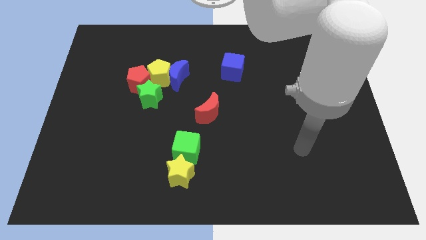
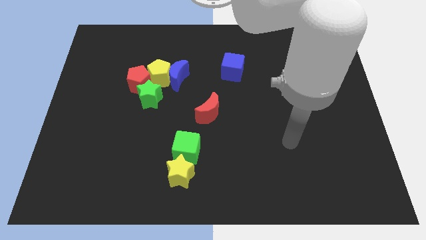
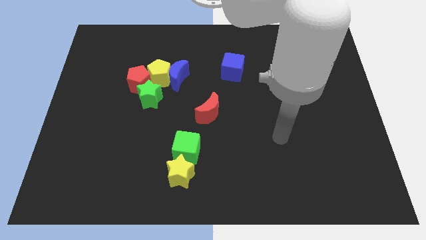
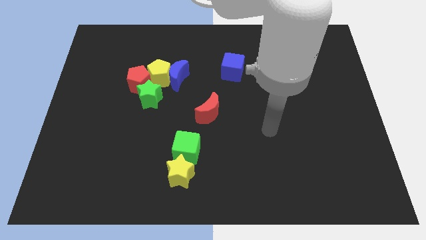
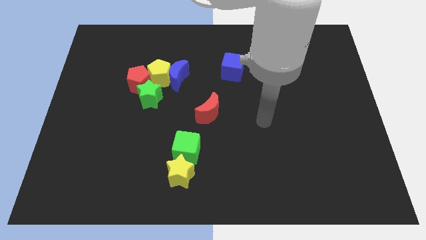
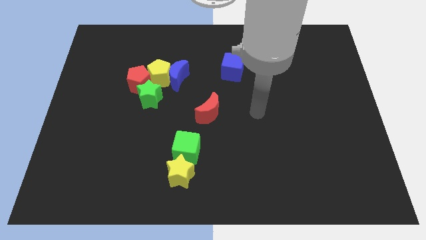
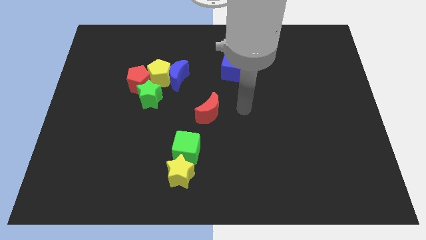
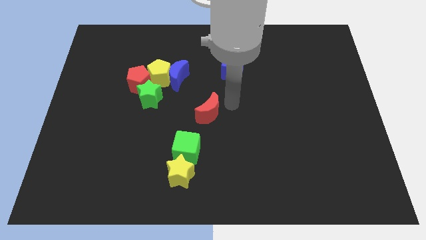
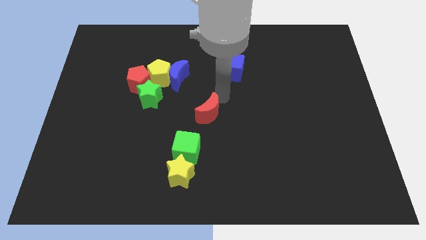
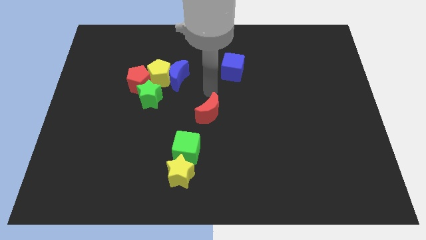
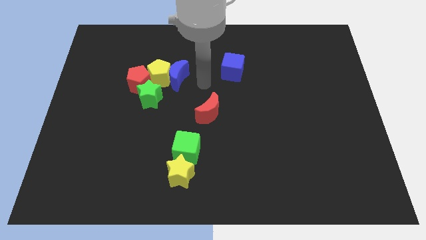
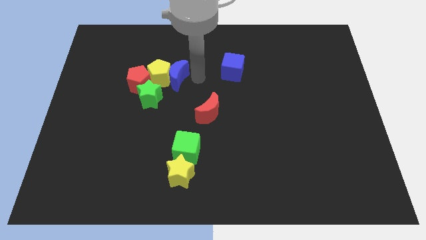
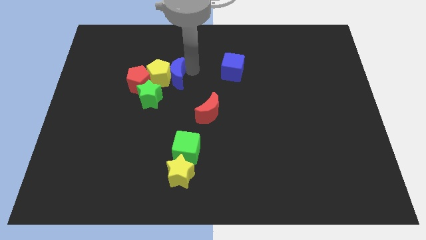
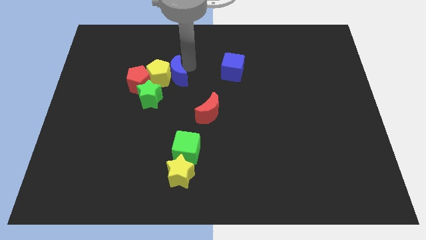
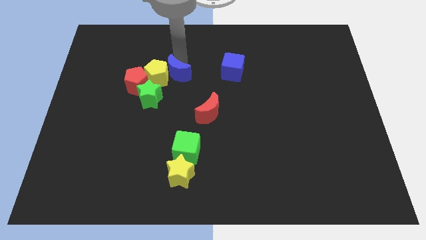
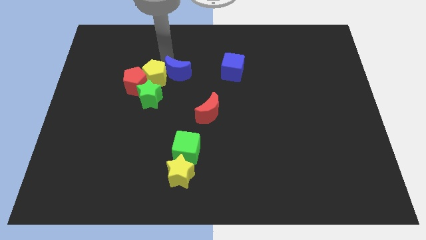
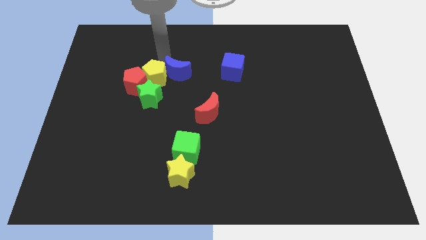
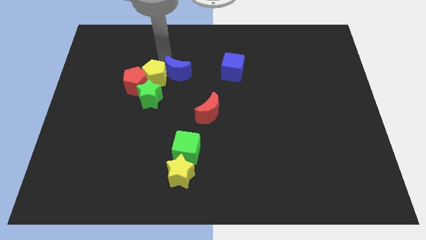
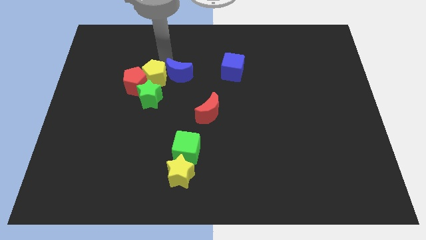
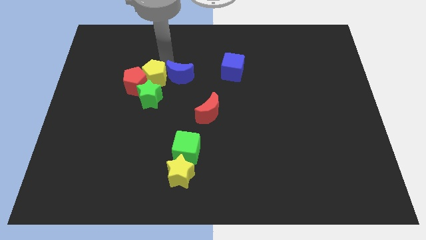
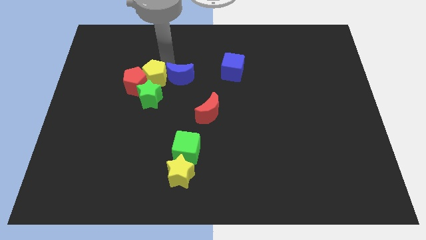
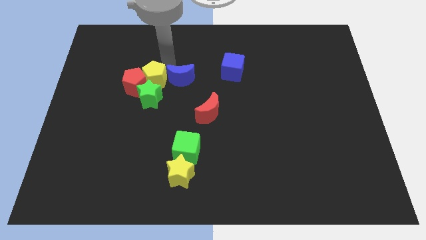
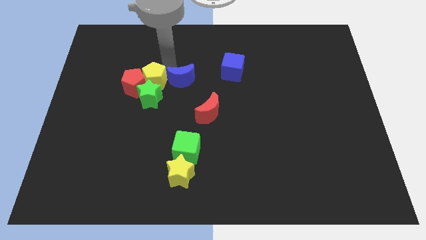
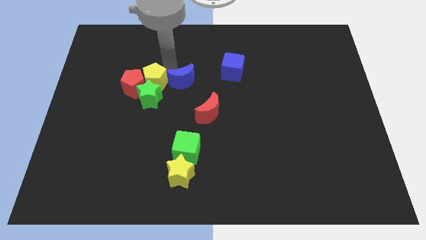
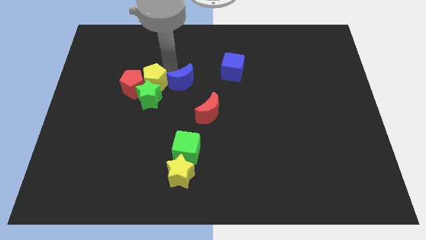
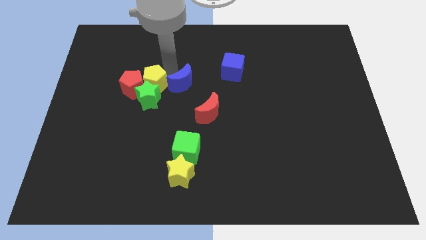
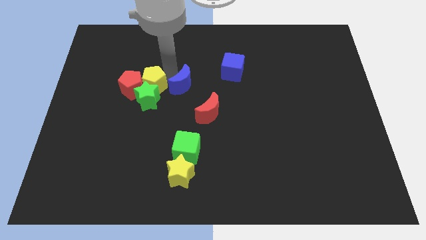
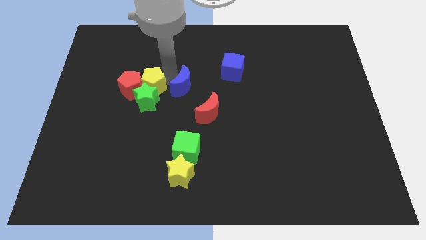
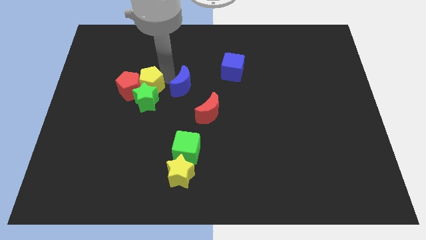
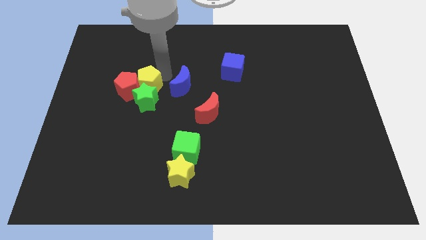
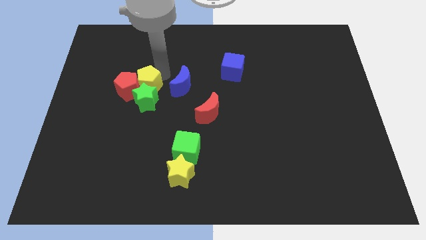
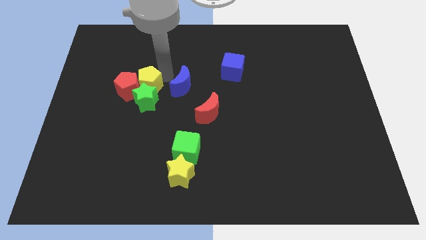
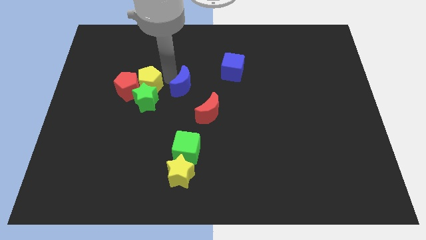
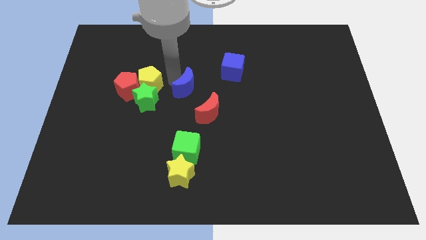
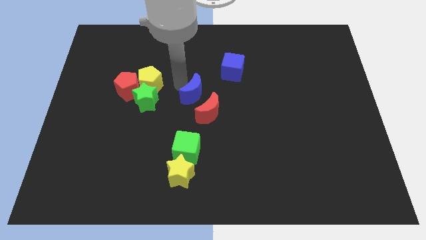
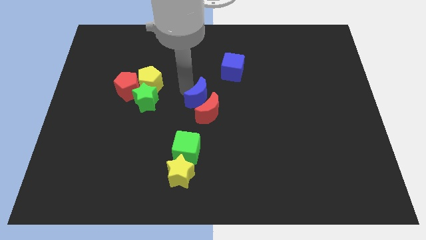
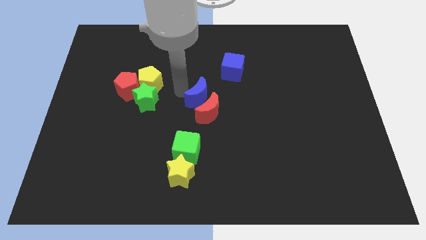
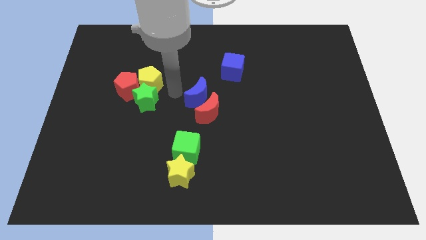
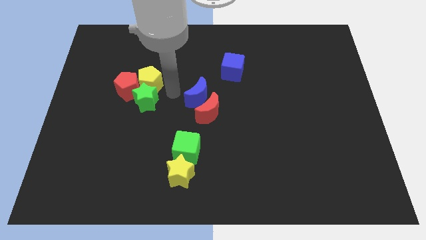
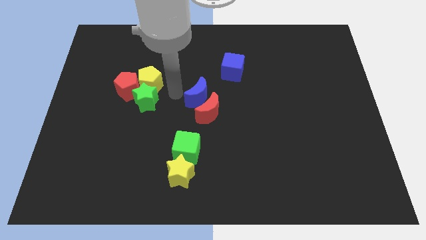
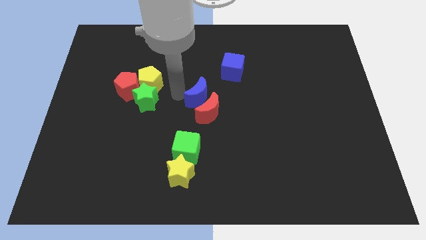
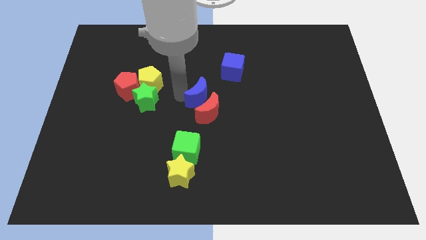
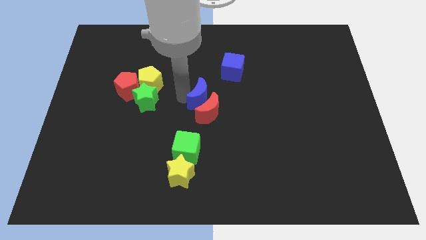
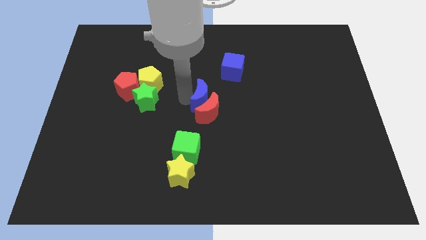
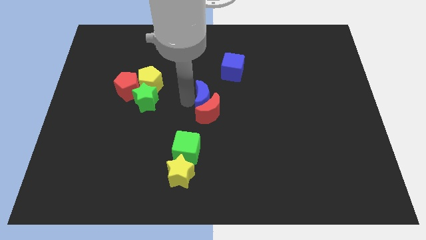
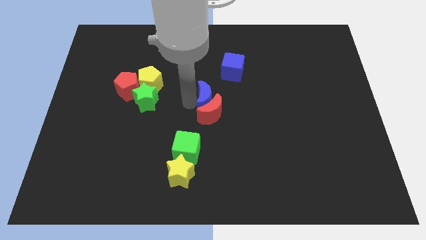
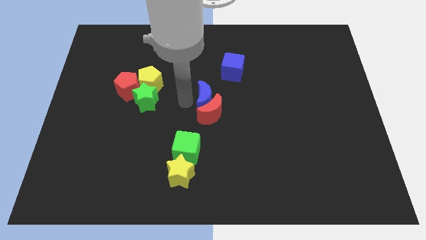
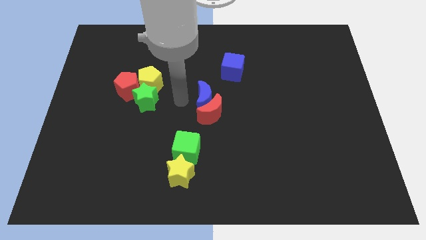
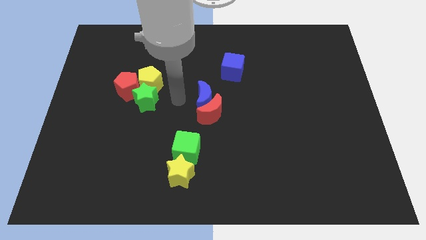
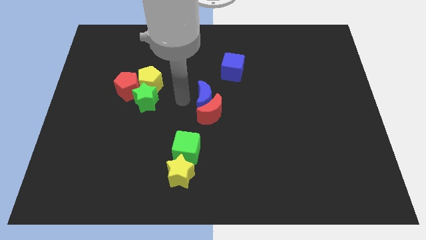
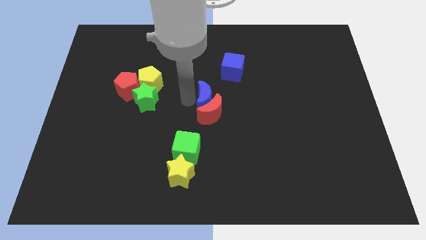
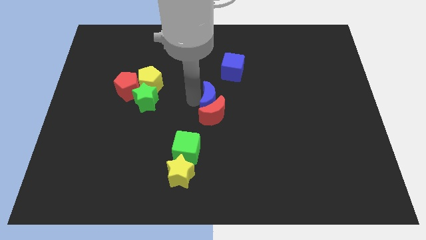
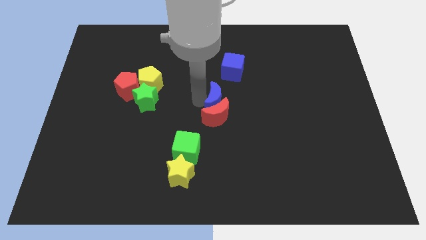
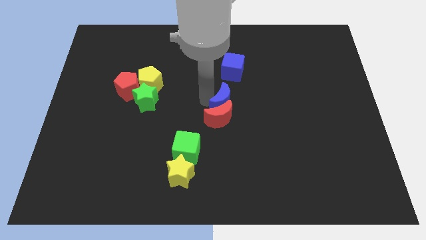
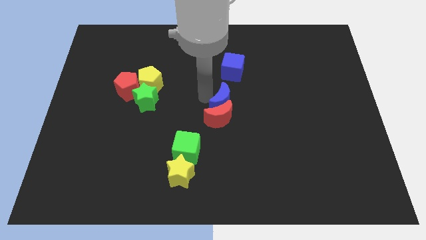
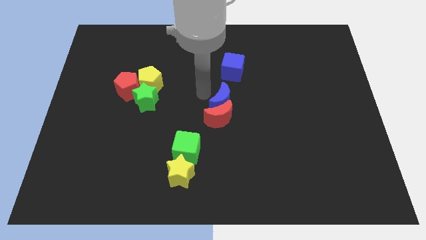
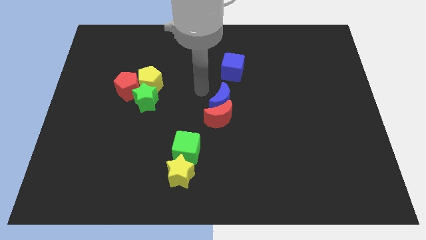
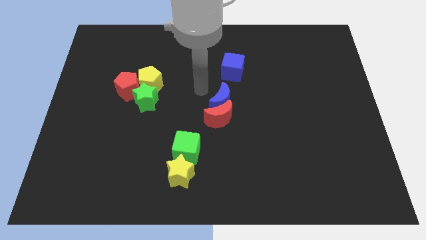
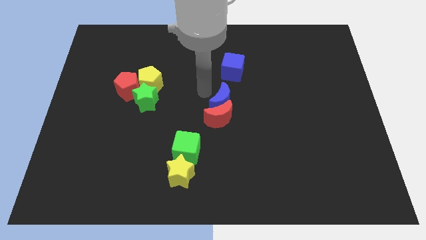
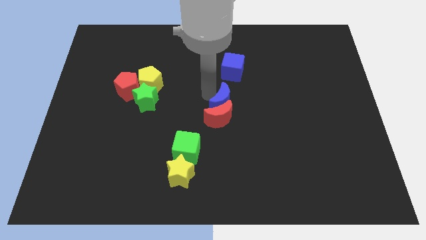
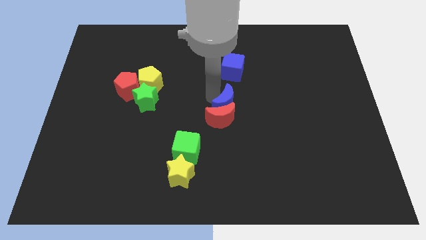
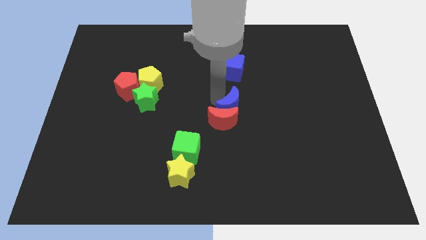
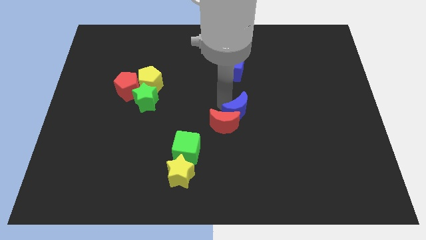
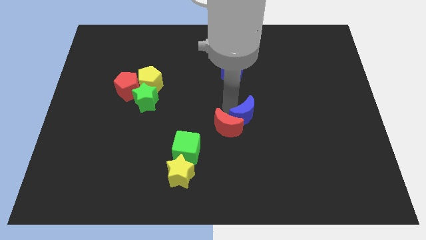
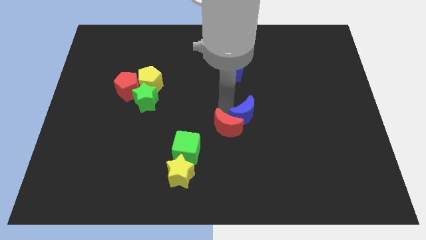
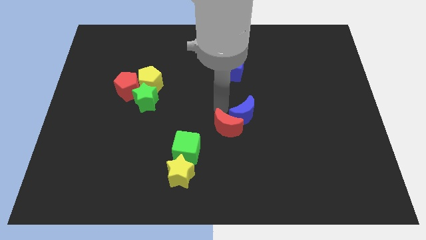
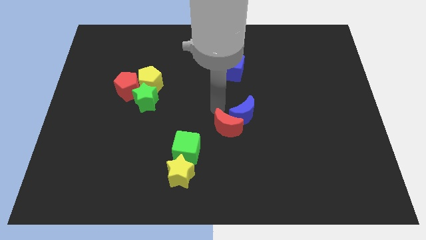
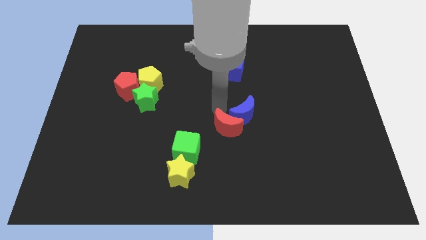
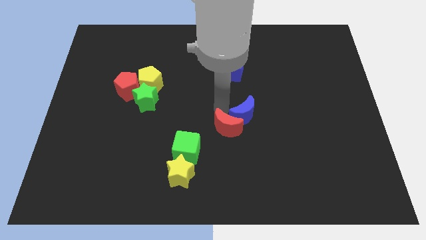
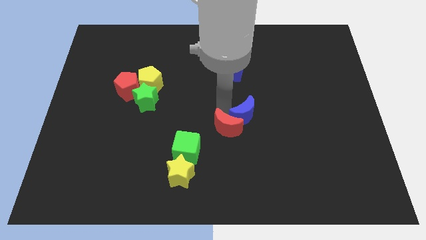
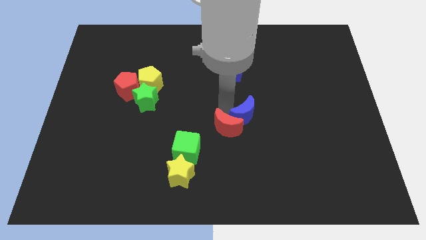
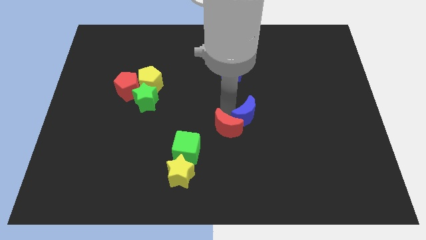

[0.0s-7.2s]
slide the blue moon diagonally downwards and to the right

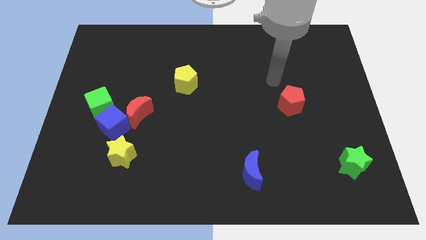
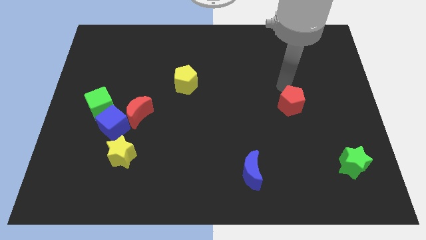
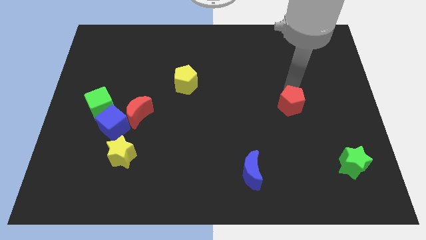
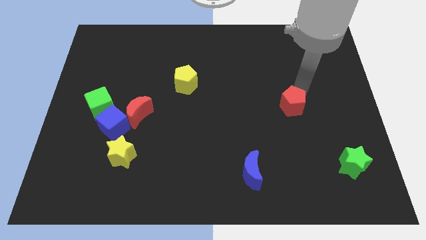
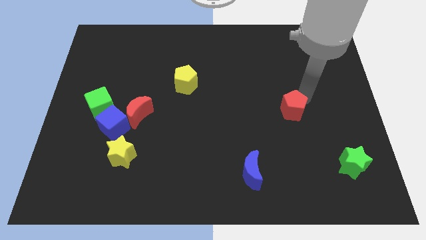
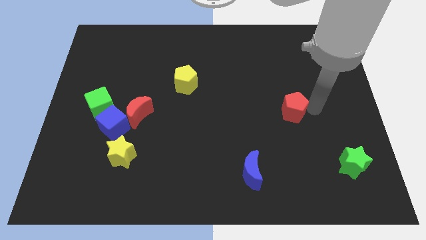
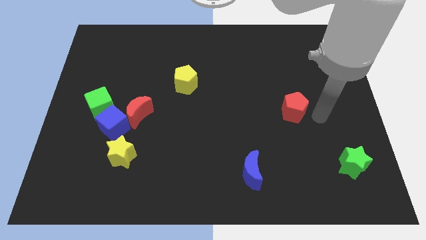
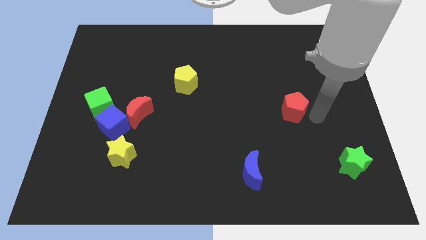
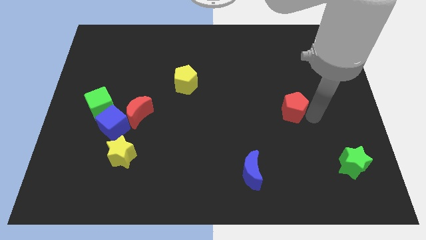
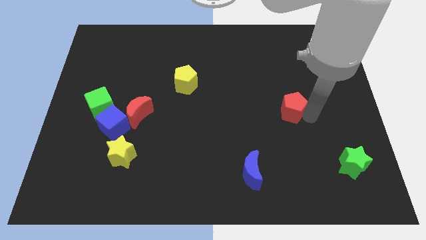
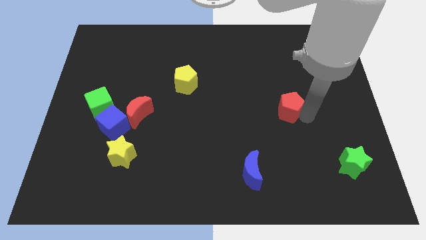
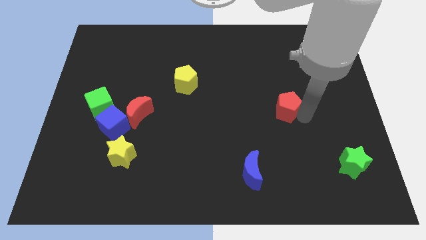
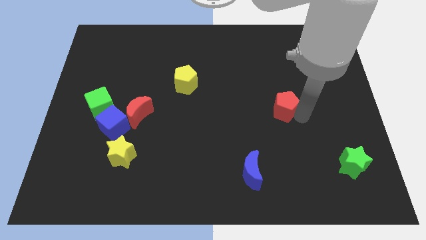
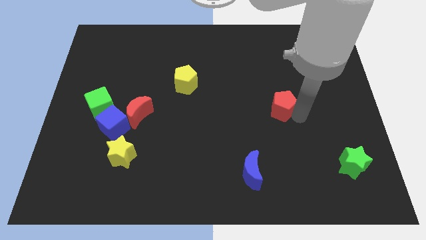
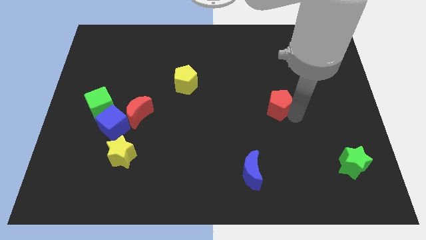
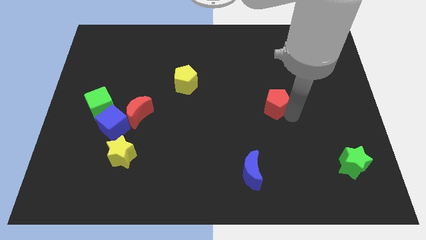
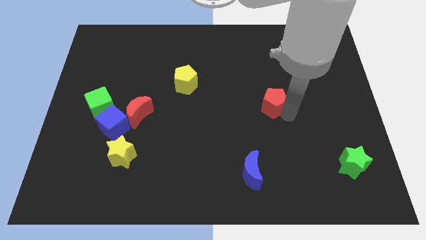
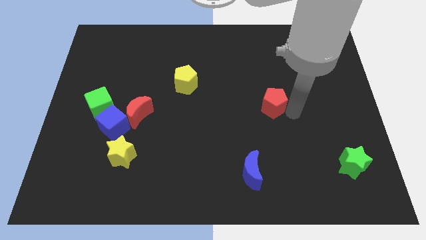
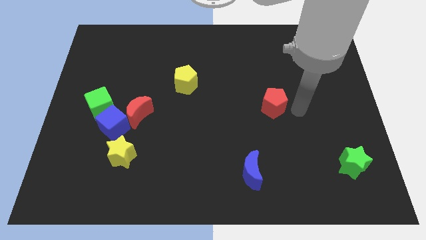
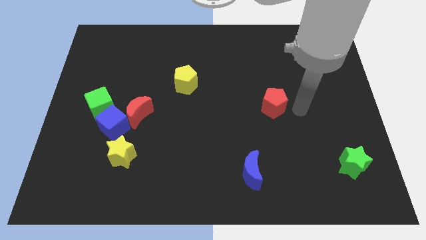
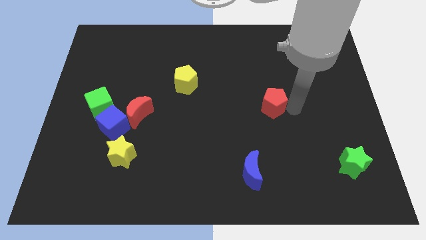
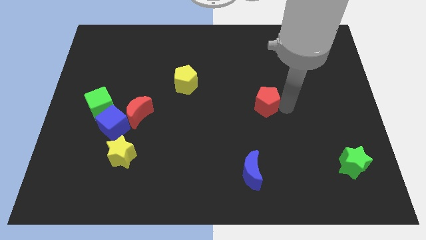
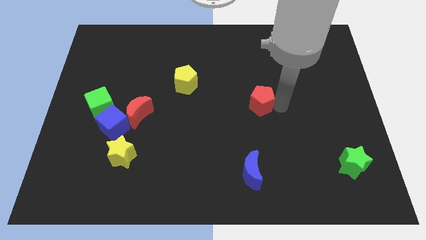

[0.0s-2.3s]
push the red pentagon a bit left
